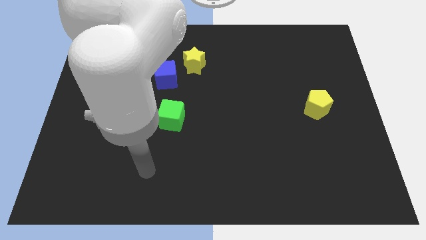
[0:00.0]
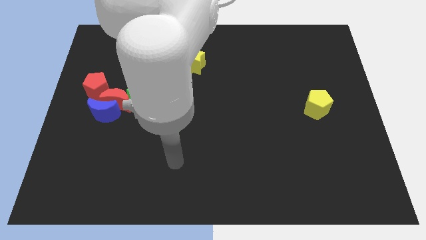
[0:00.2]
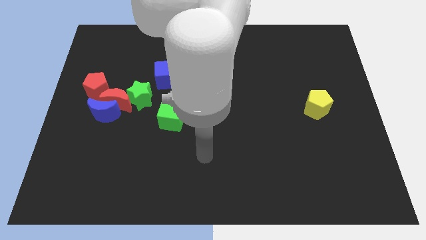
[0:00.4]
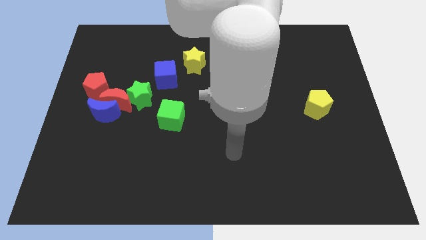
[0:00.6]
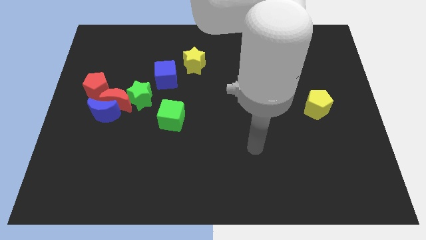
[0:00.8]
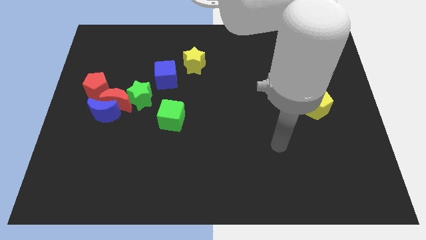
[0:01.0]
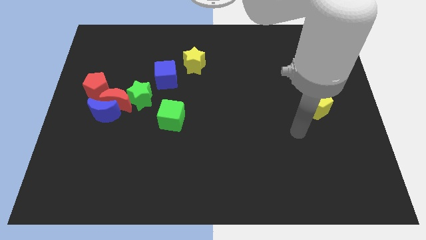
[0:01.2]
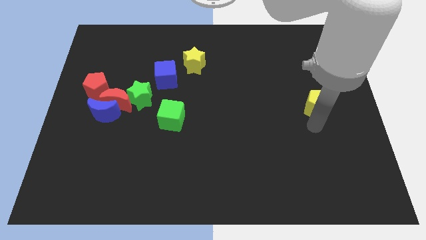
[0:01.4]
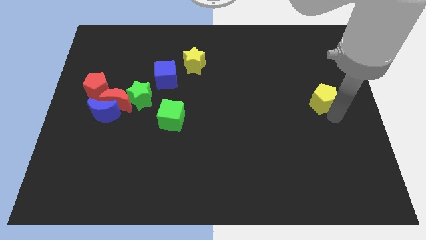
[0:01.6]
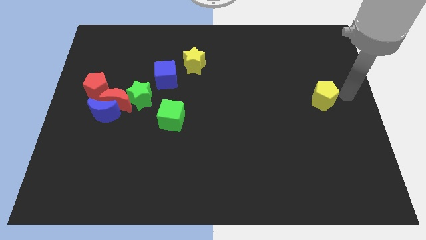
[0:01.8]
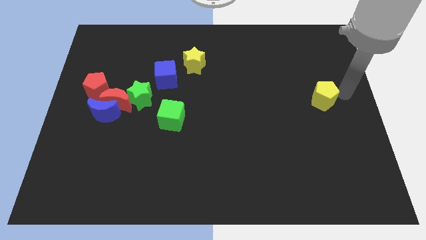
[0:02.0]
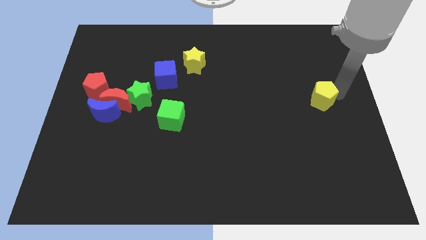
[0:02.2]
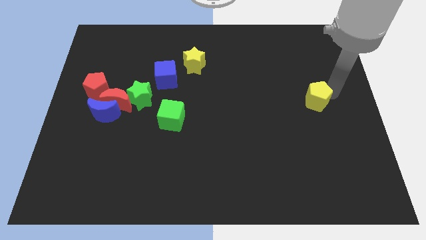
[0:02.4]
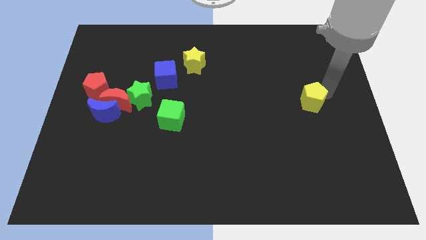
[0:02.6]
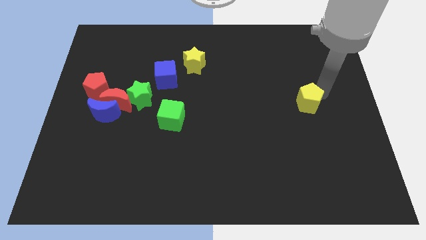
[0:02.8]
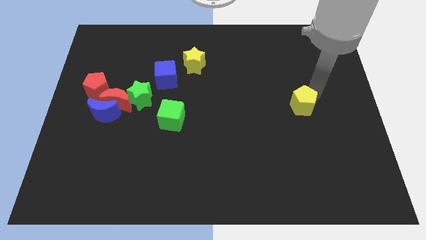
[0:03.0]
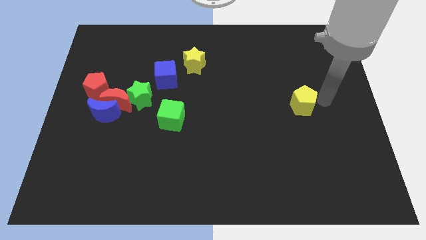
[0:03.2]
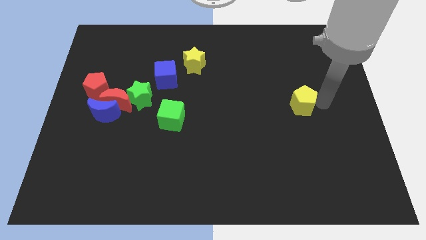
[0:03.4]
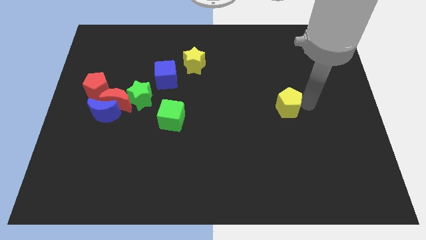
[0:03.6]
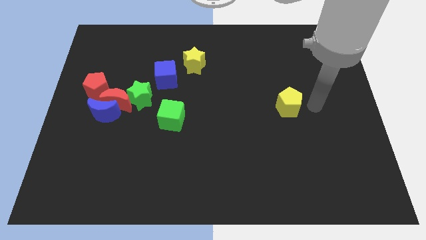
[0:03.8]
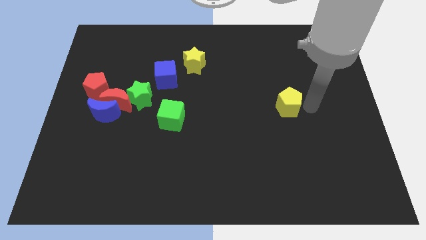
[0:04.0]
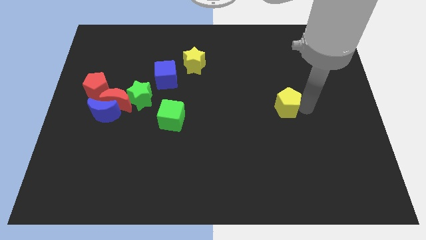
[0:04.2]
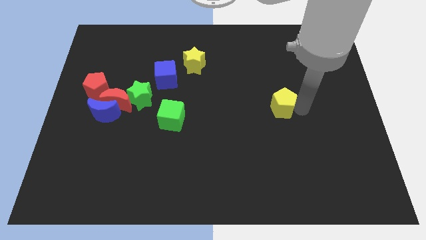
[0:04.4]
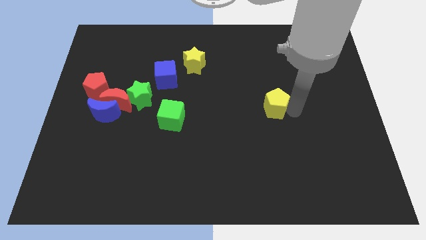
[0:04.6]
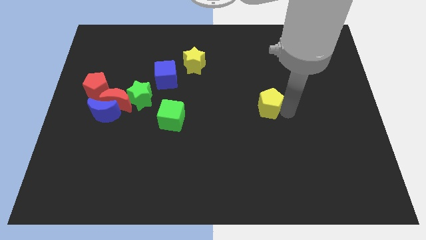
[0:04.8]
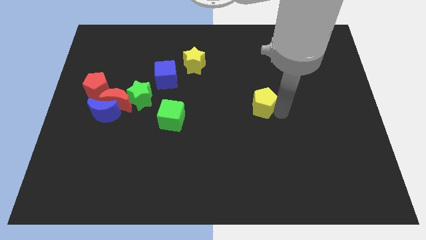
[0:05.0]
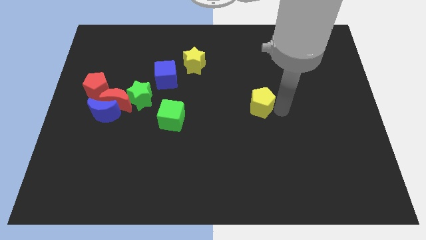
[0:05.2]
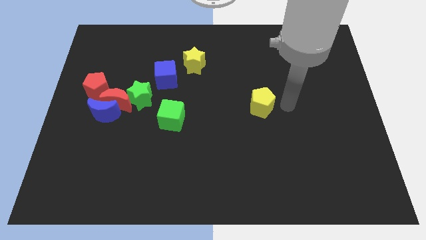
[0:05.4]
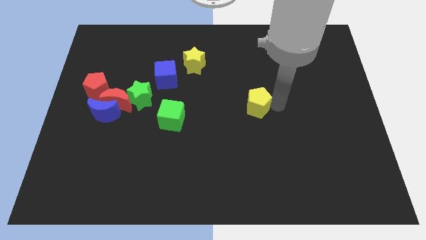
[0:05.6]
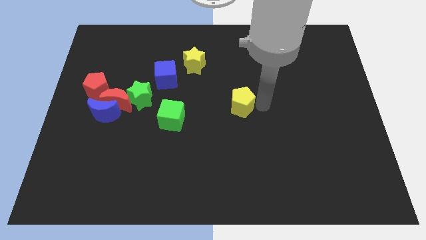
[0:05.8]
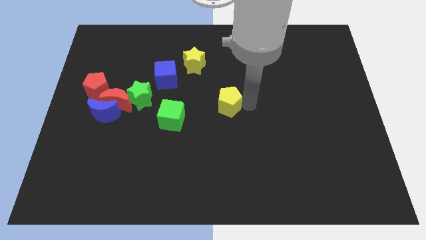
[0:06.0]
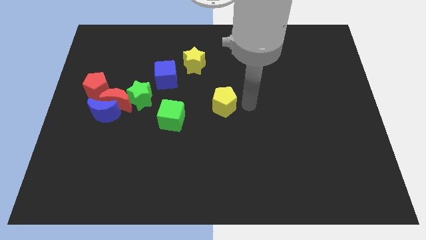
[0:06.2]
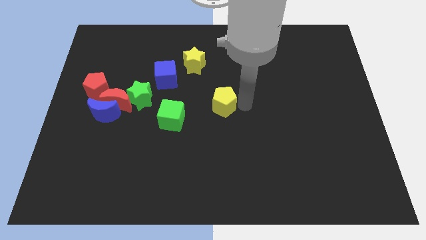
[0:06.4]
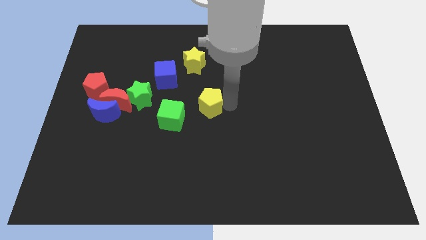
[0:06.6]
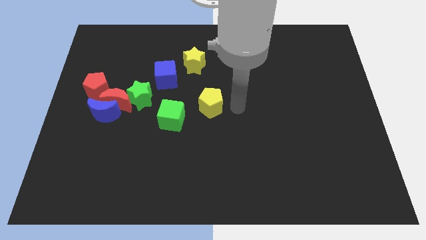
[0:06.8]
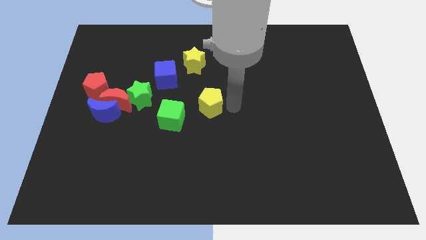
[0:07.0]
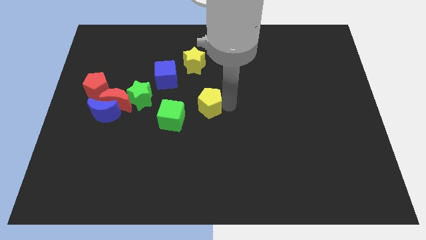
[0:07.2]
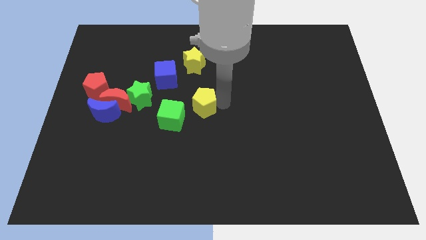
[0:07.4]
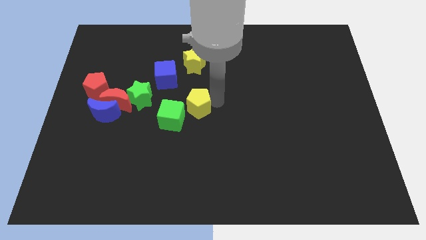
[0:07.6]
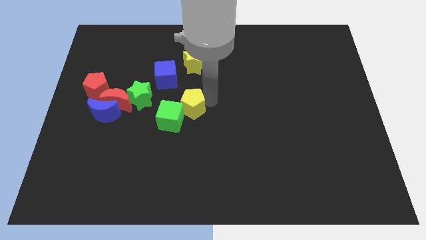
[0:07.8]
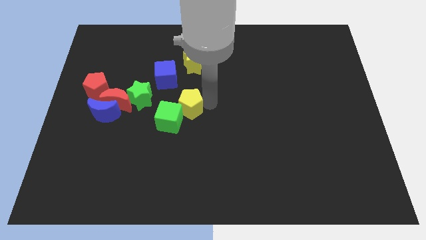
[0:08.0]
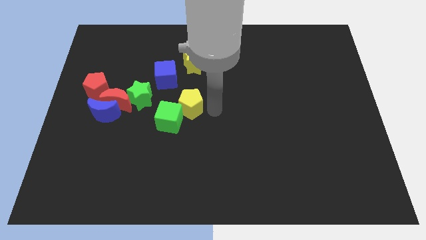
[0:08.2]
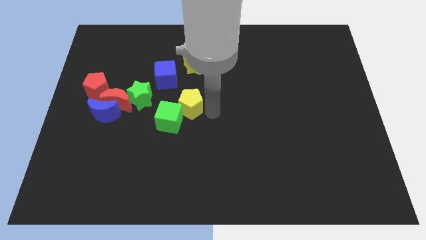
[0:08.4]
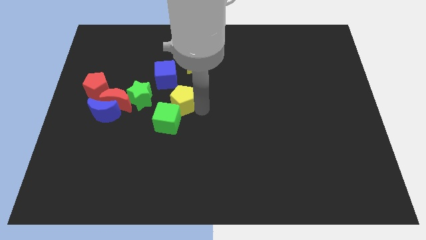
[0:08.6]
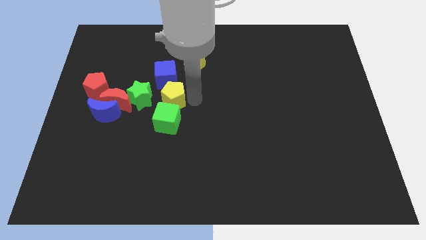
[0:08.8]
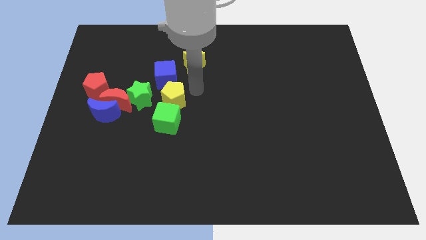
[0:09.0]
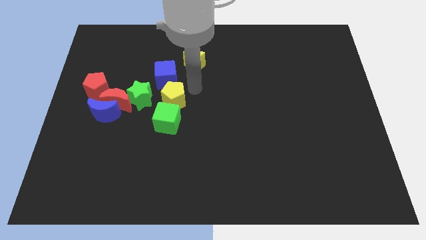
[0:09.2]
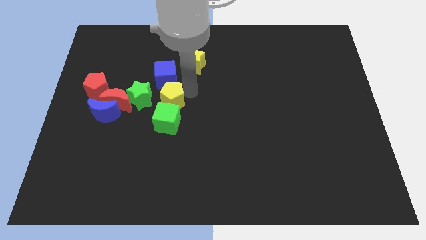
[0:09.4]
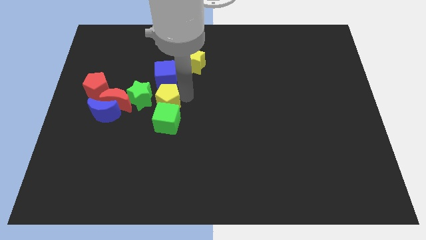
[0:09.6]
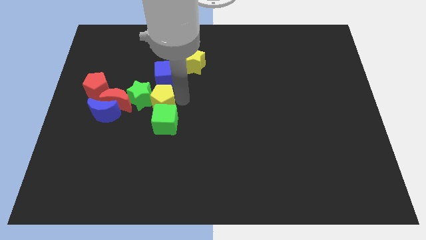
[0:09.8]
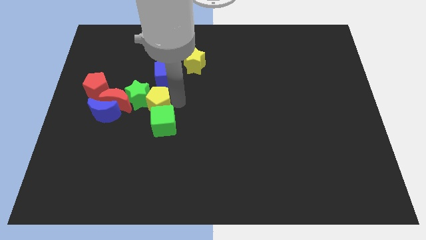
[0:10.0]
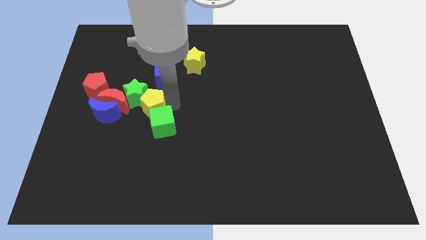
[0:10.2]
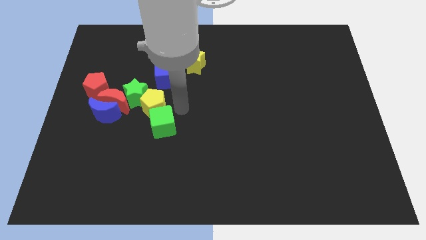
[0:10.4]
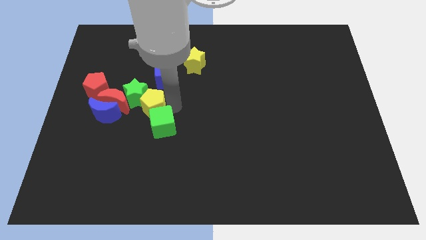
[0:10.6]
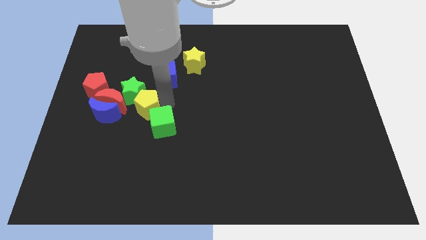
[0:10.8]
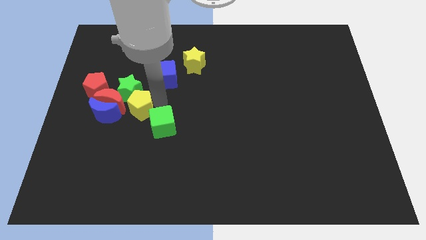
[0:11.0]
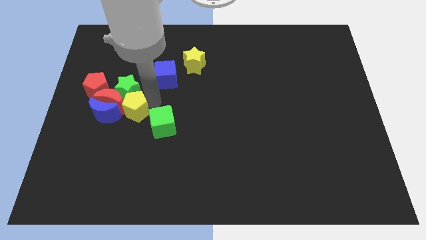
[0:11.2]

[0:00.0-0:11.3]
push the yellow pentagon next to the red moon

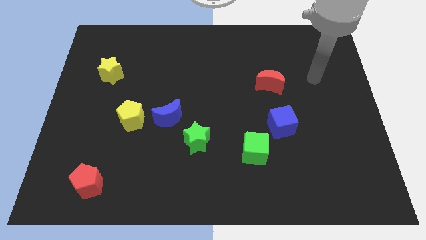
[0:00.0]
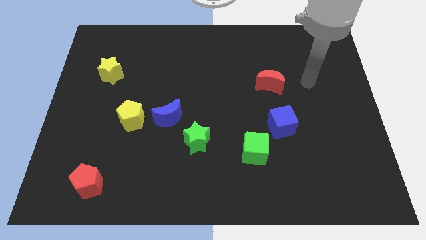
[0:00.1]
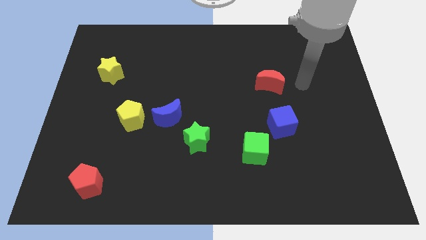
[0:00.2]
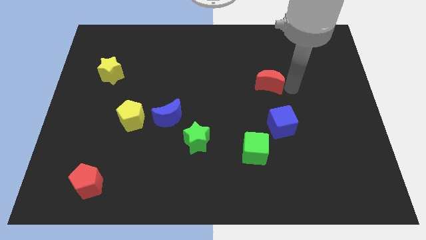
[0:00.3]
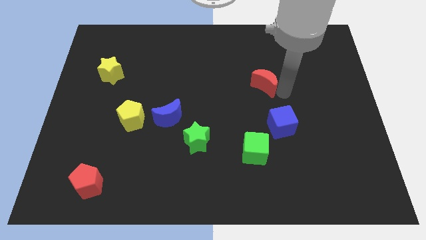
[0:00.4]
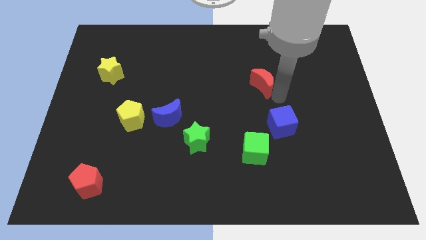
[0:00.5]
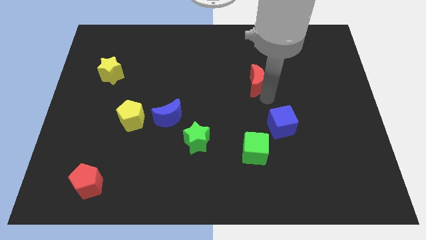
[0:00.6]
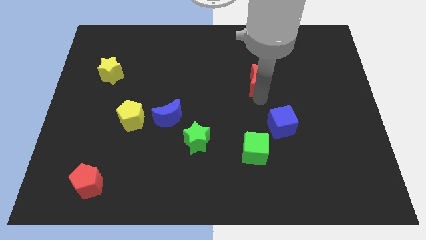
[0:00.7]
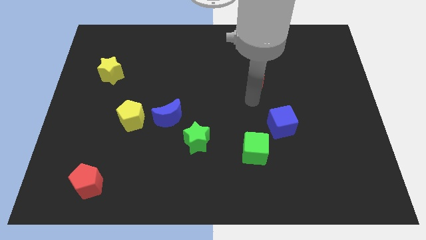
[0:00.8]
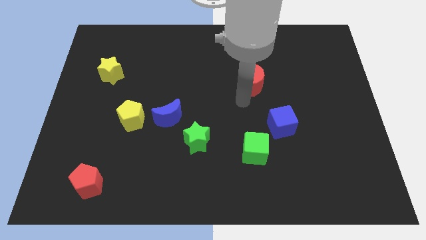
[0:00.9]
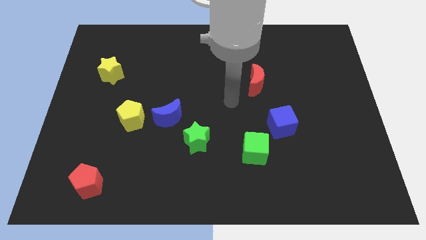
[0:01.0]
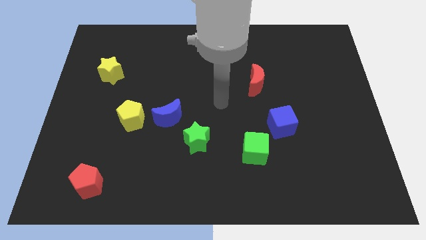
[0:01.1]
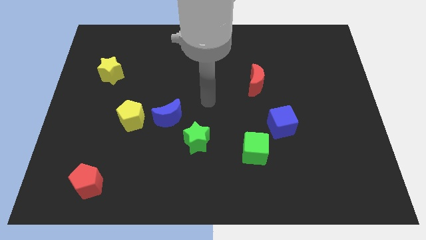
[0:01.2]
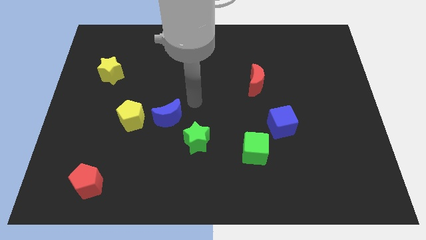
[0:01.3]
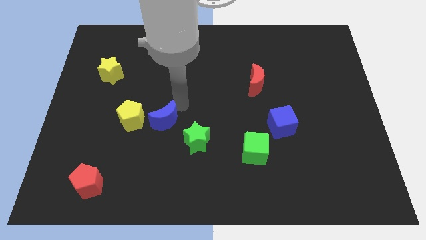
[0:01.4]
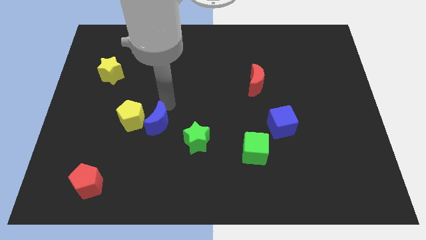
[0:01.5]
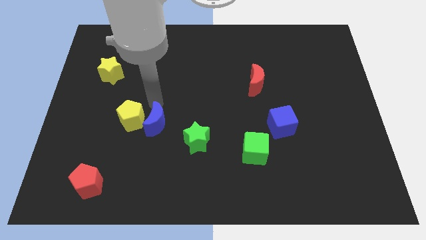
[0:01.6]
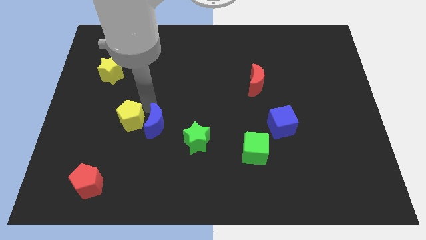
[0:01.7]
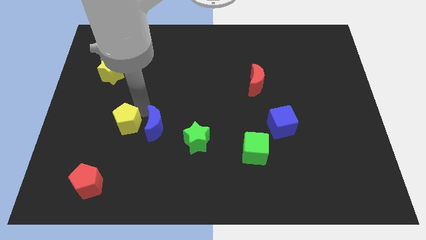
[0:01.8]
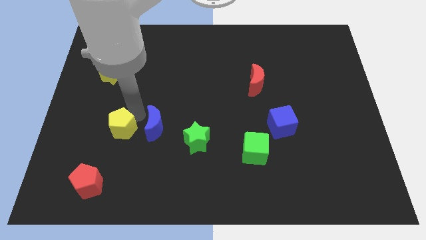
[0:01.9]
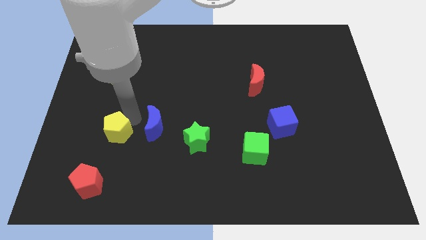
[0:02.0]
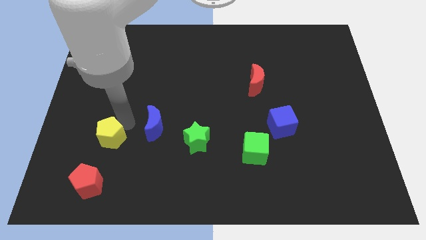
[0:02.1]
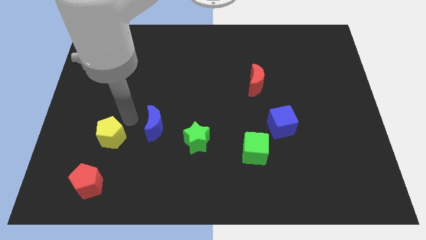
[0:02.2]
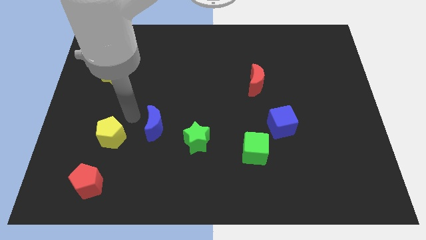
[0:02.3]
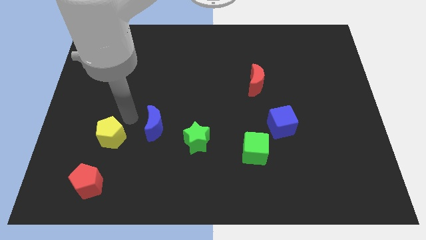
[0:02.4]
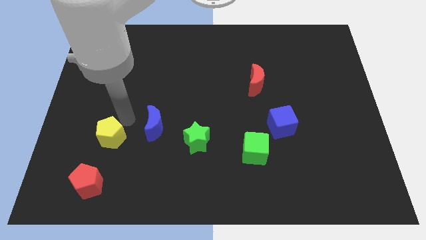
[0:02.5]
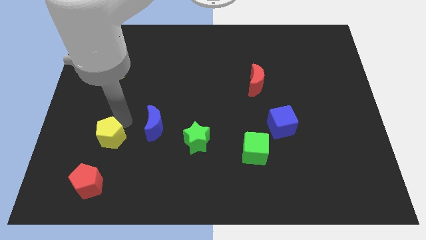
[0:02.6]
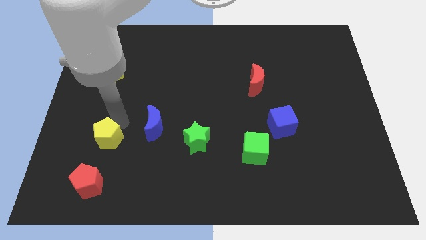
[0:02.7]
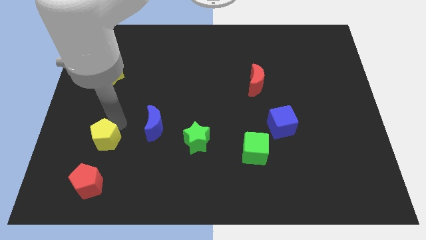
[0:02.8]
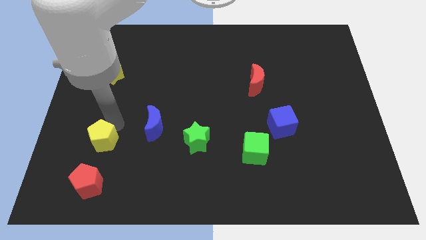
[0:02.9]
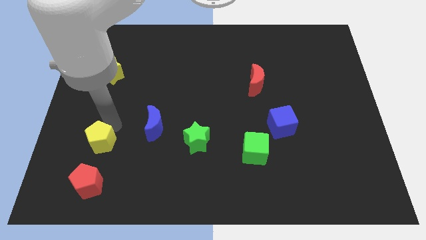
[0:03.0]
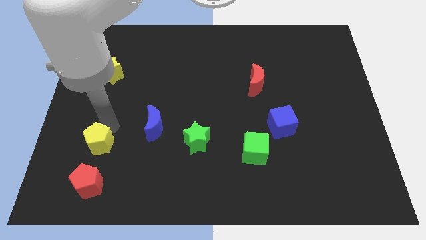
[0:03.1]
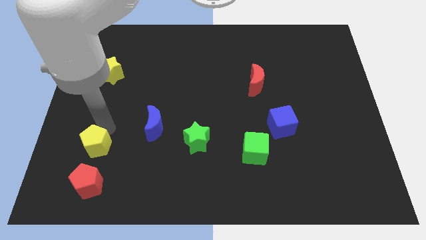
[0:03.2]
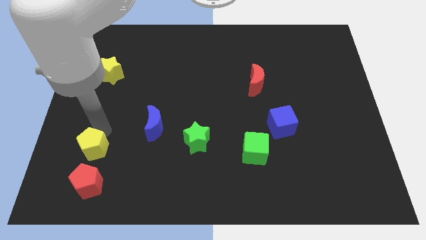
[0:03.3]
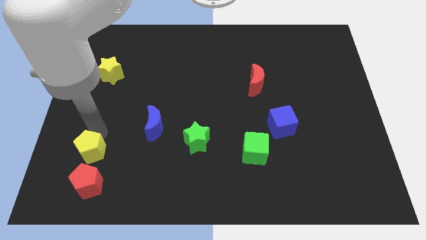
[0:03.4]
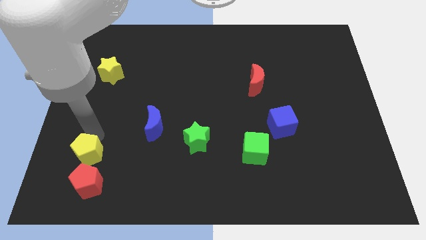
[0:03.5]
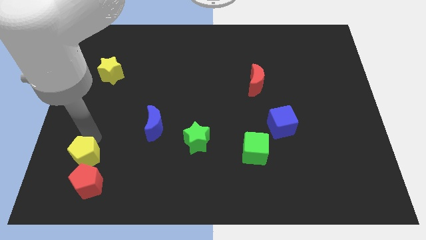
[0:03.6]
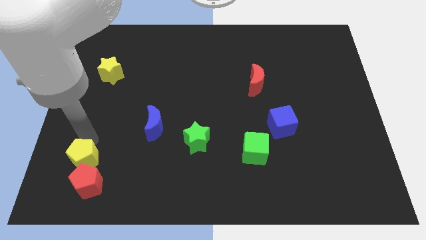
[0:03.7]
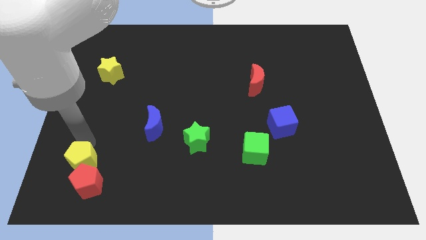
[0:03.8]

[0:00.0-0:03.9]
slide the yellow pentagon towards the red pentagon
